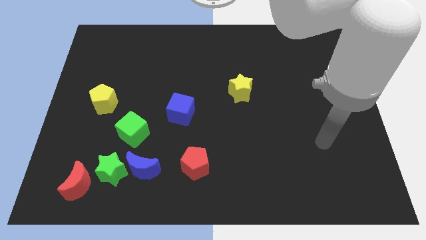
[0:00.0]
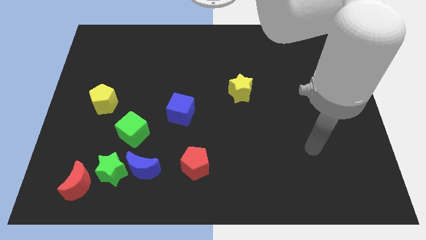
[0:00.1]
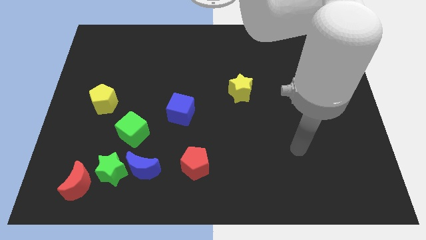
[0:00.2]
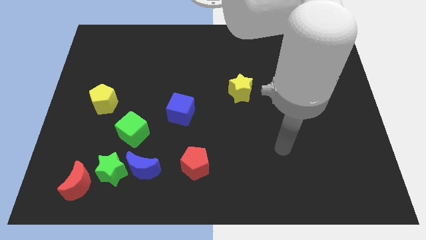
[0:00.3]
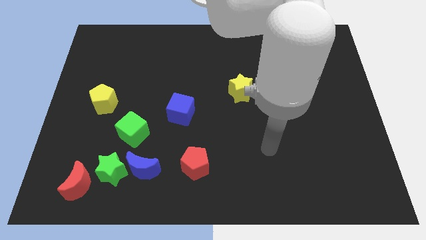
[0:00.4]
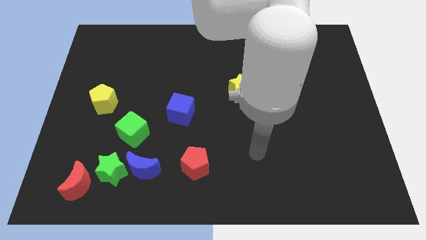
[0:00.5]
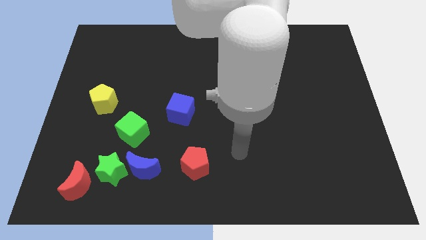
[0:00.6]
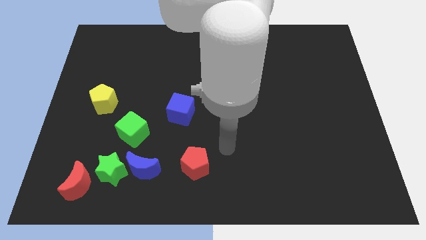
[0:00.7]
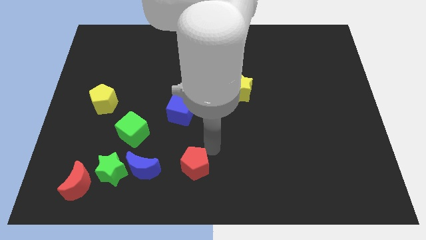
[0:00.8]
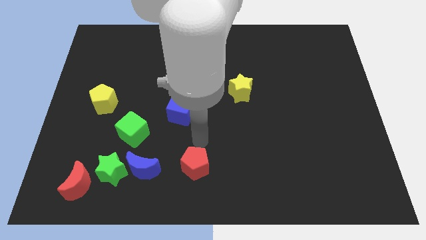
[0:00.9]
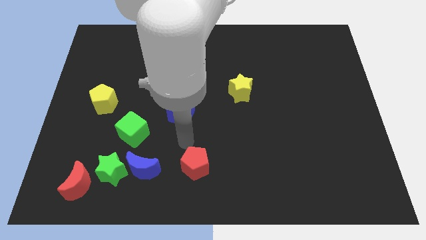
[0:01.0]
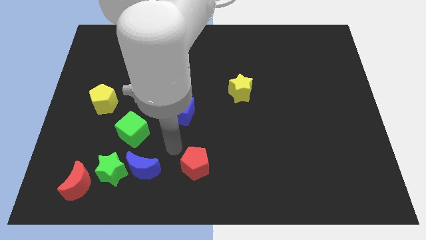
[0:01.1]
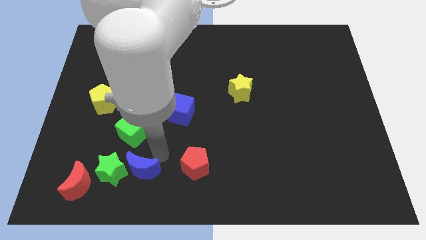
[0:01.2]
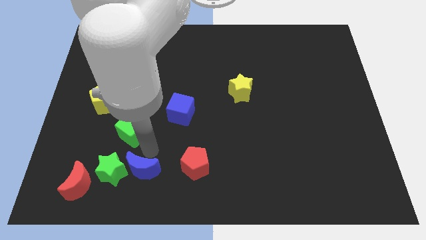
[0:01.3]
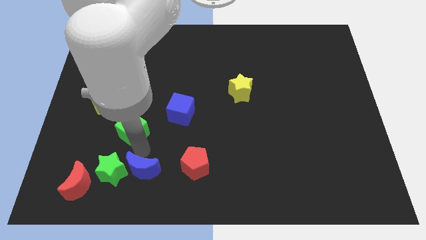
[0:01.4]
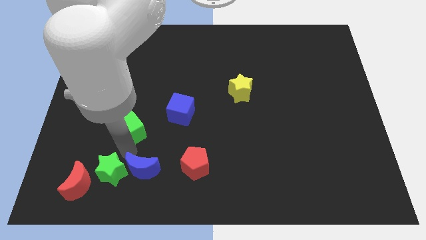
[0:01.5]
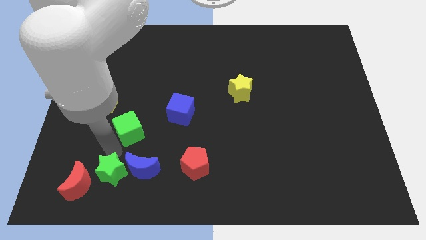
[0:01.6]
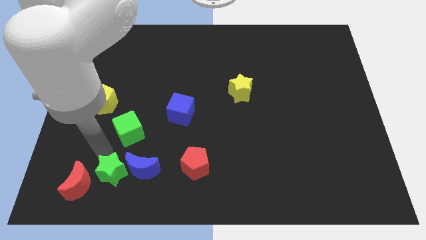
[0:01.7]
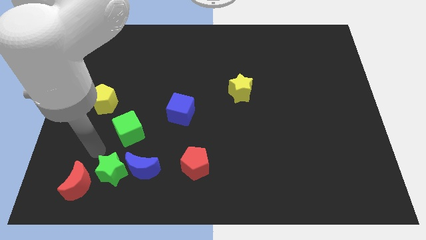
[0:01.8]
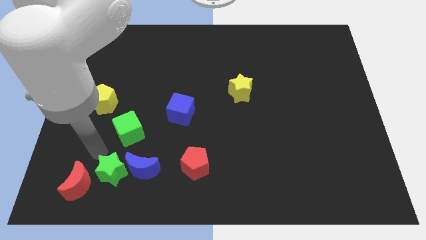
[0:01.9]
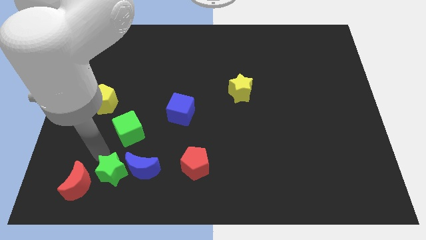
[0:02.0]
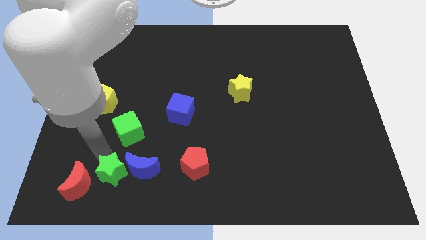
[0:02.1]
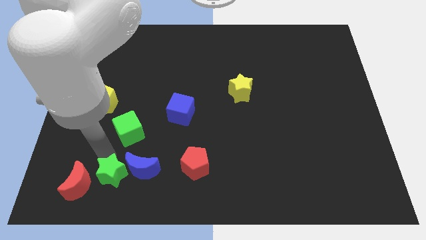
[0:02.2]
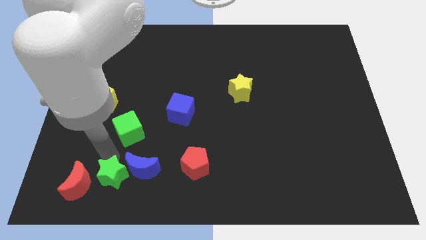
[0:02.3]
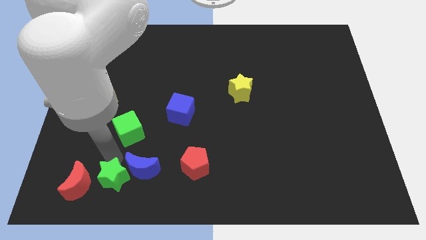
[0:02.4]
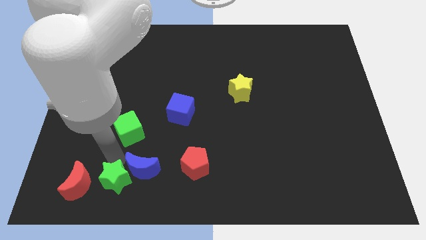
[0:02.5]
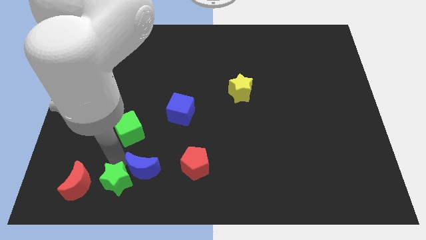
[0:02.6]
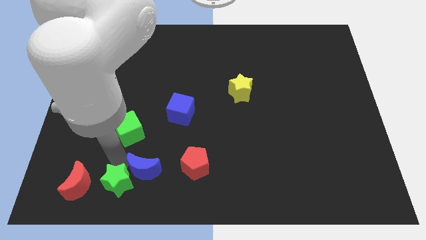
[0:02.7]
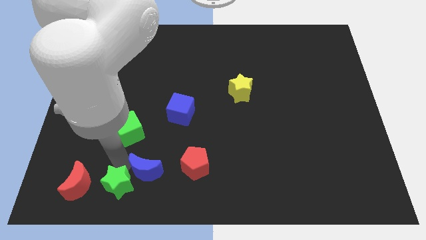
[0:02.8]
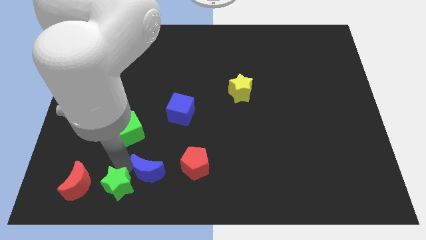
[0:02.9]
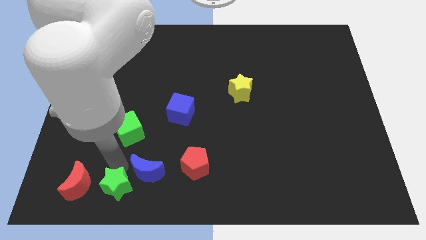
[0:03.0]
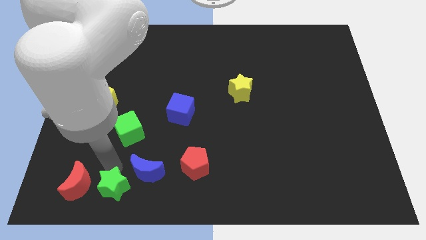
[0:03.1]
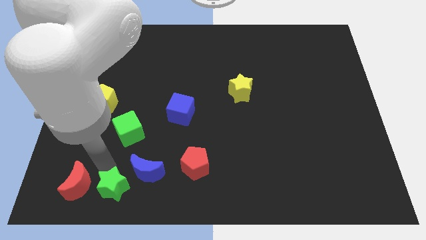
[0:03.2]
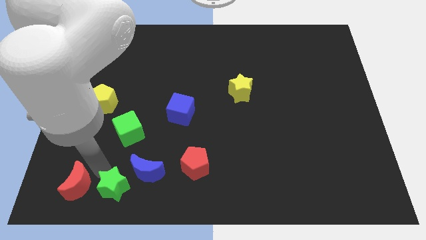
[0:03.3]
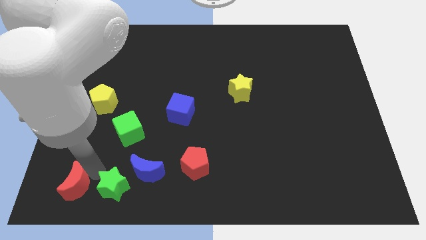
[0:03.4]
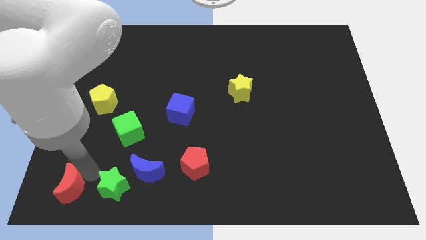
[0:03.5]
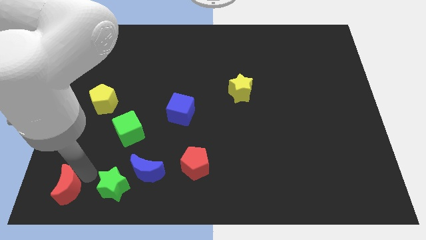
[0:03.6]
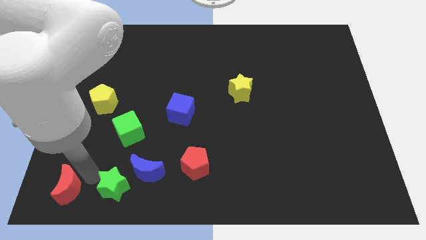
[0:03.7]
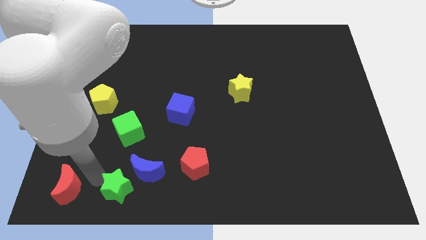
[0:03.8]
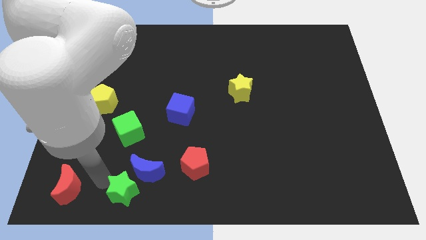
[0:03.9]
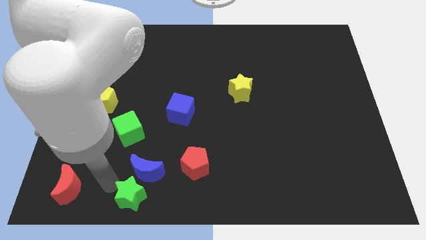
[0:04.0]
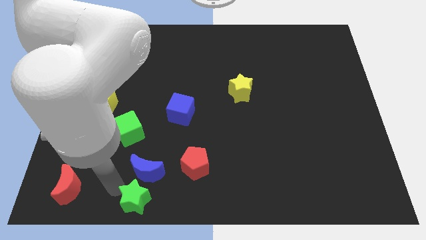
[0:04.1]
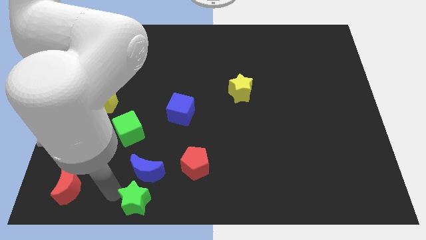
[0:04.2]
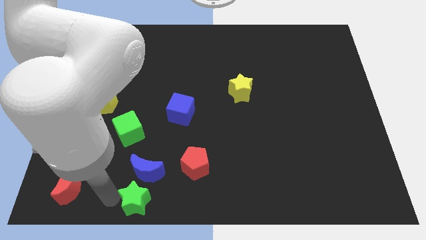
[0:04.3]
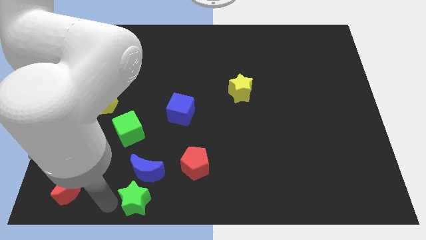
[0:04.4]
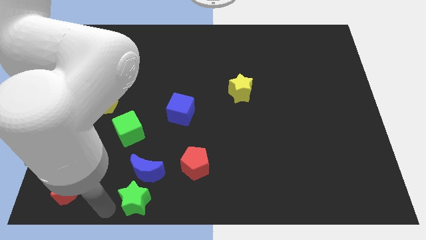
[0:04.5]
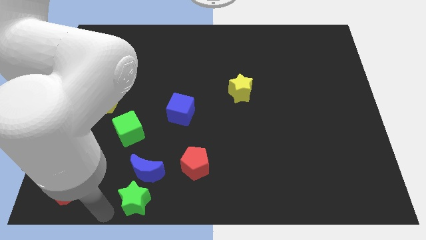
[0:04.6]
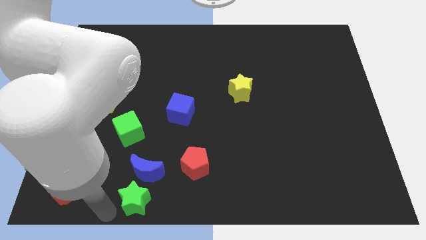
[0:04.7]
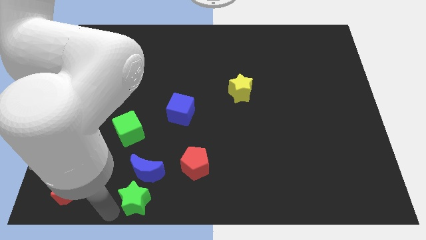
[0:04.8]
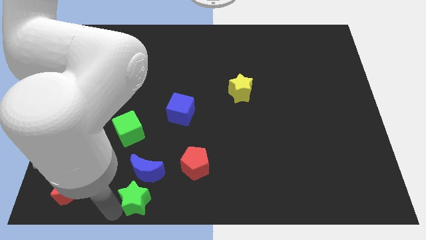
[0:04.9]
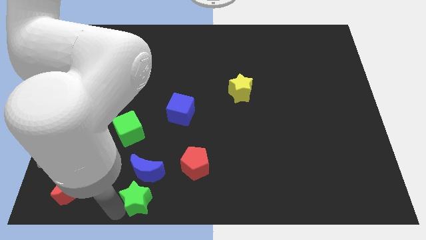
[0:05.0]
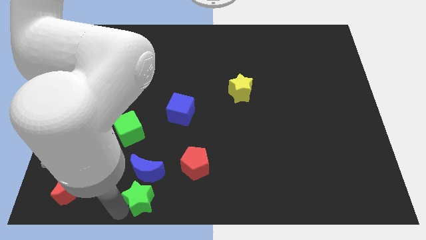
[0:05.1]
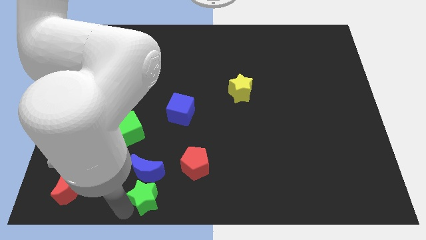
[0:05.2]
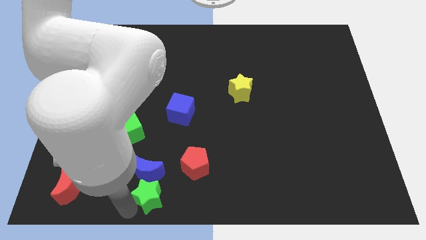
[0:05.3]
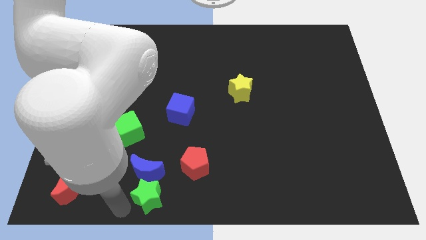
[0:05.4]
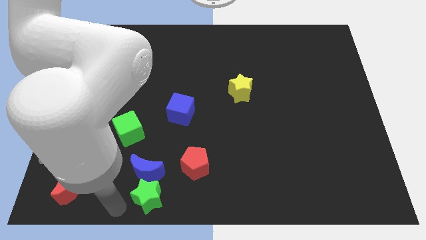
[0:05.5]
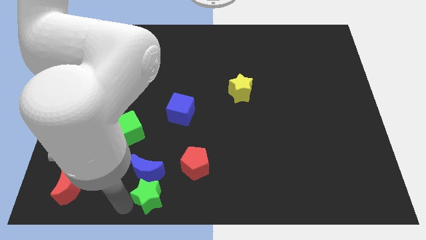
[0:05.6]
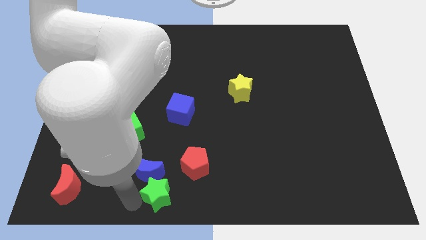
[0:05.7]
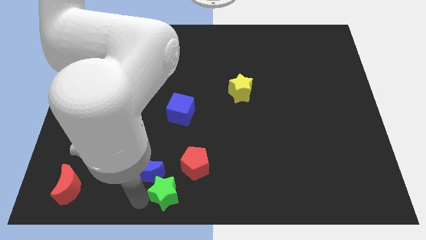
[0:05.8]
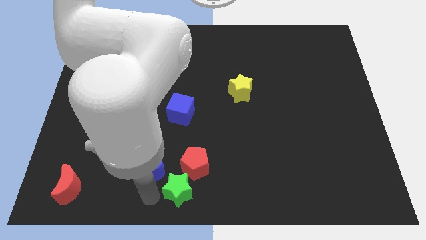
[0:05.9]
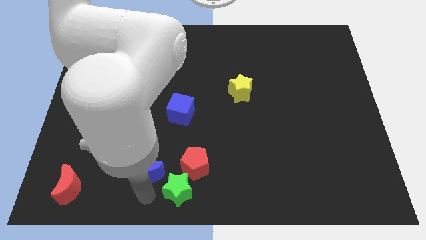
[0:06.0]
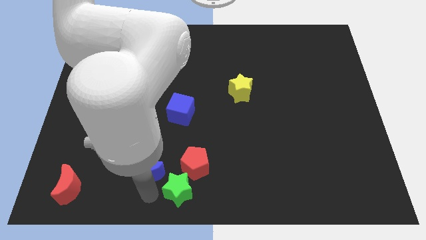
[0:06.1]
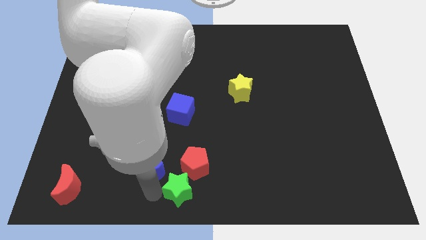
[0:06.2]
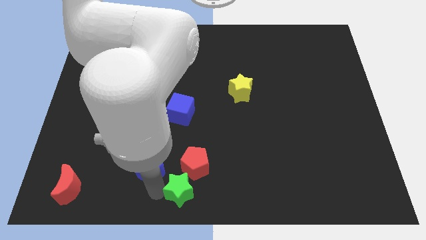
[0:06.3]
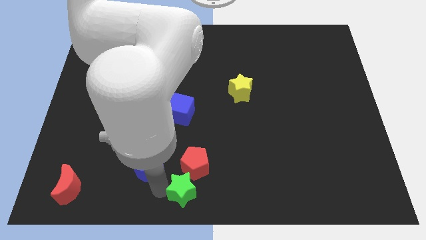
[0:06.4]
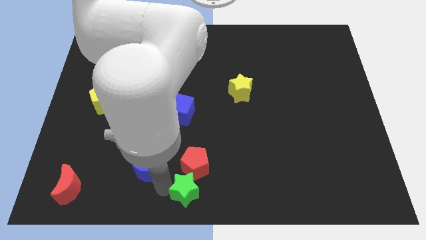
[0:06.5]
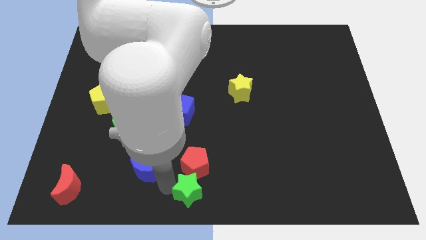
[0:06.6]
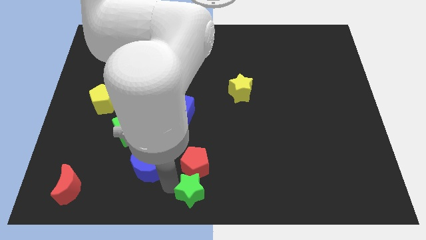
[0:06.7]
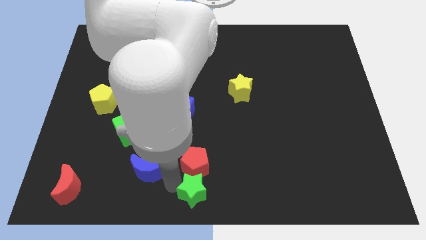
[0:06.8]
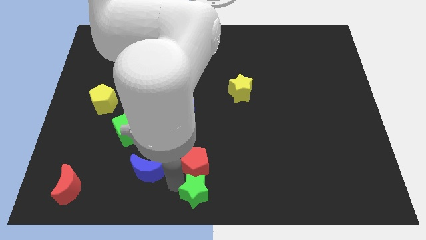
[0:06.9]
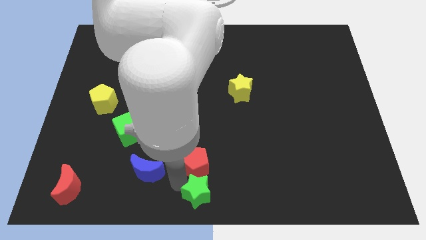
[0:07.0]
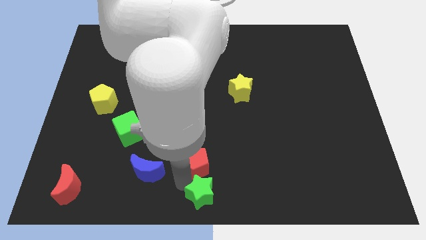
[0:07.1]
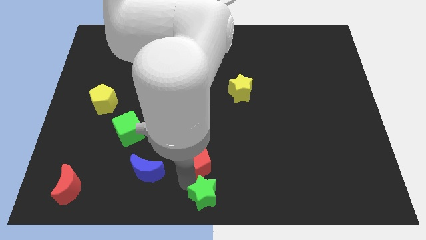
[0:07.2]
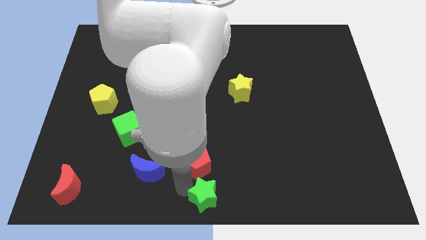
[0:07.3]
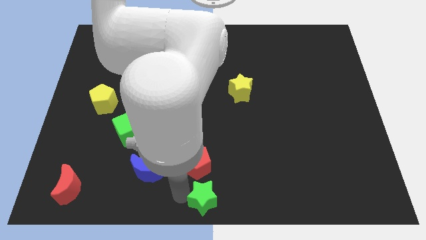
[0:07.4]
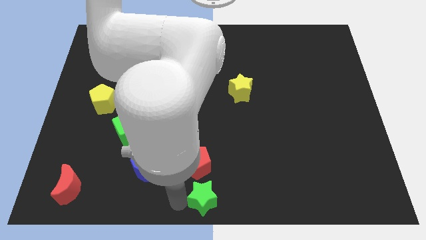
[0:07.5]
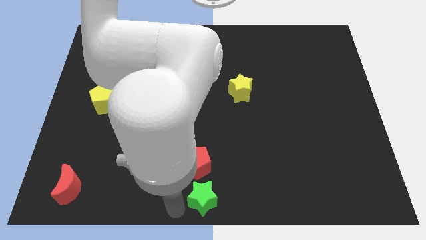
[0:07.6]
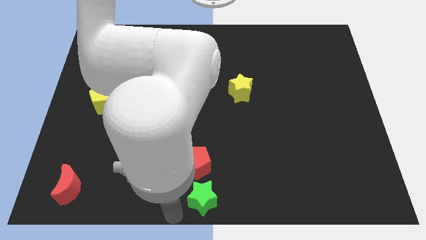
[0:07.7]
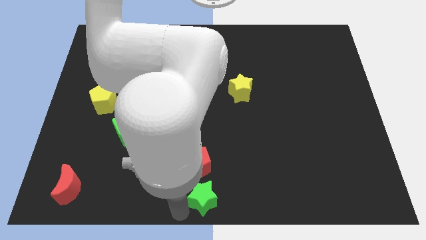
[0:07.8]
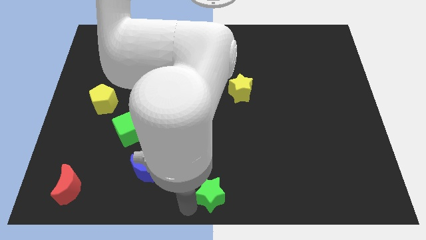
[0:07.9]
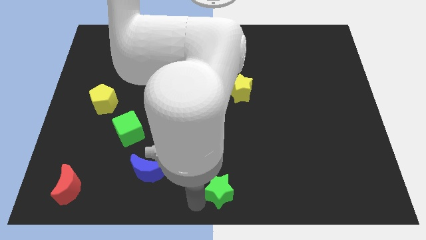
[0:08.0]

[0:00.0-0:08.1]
push the green star right
